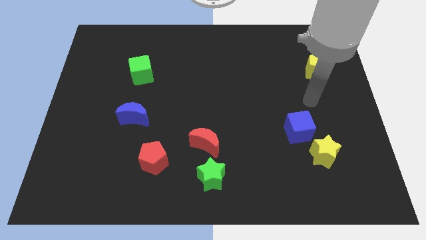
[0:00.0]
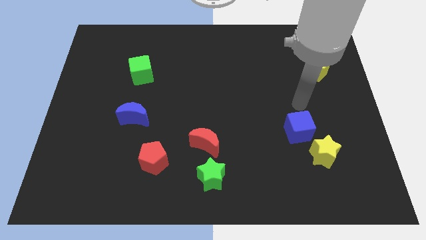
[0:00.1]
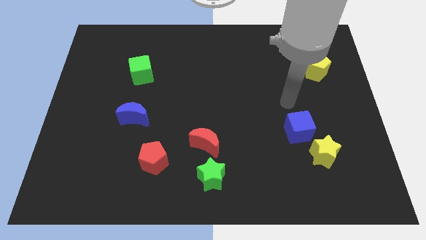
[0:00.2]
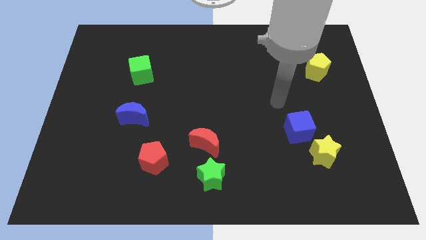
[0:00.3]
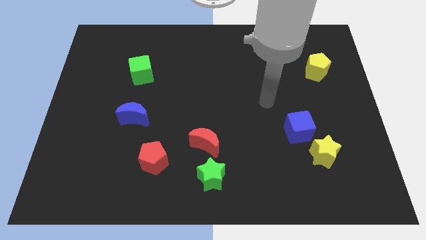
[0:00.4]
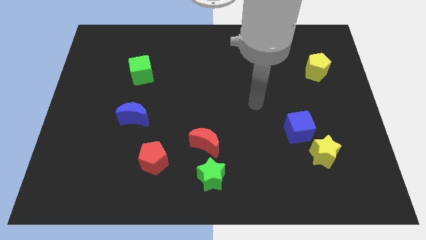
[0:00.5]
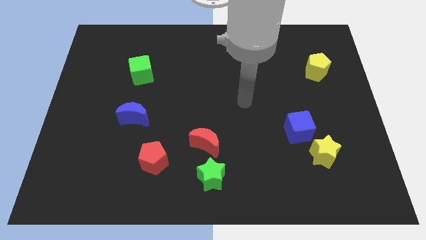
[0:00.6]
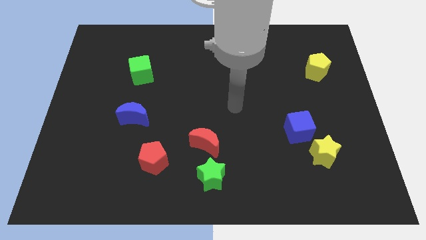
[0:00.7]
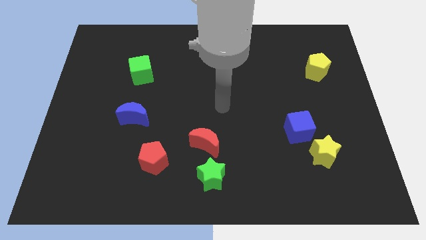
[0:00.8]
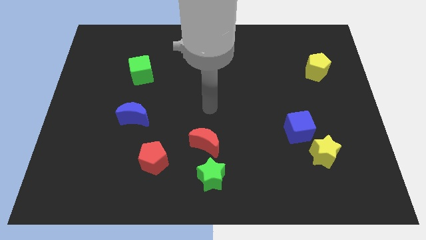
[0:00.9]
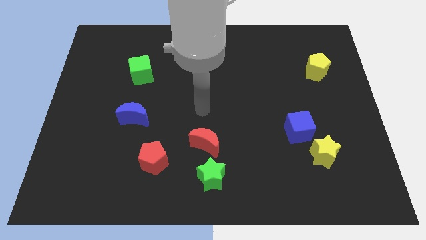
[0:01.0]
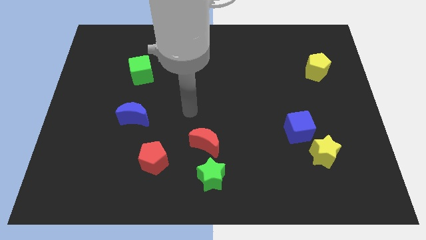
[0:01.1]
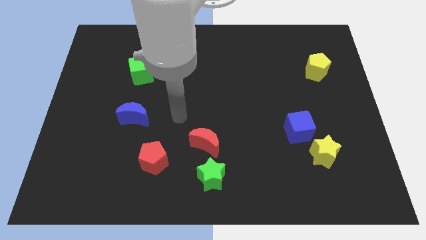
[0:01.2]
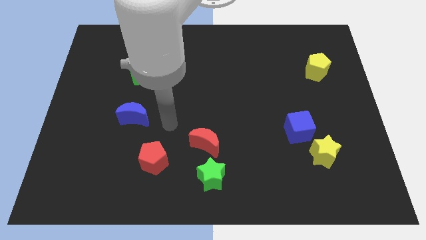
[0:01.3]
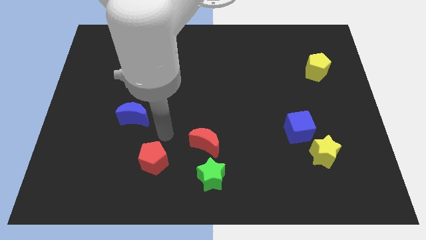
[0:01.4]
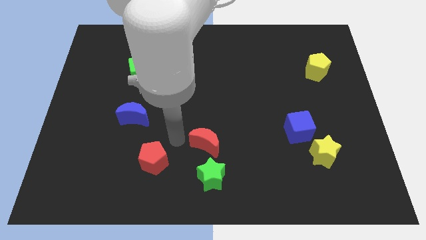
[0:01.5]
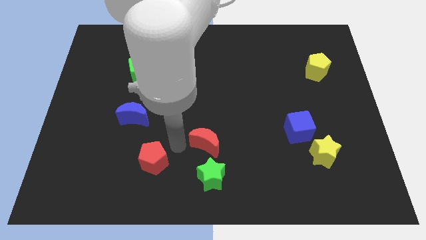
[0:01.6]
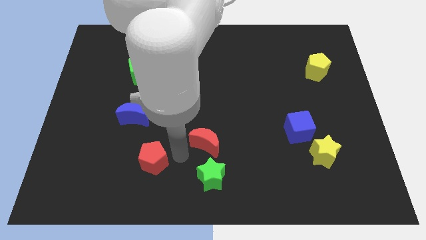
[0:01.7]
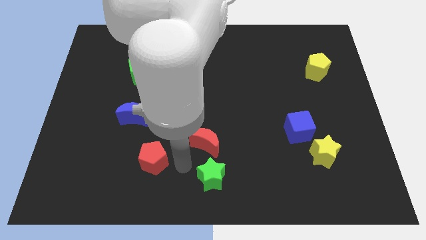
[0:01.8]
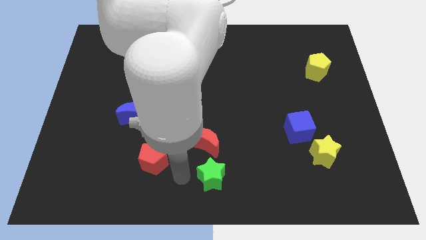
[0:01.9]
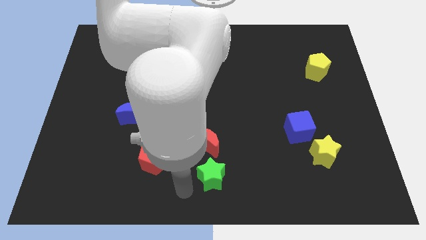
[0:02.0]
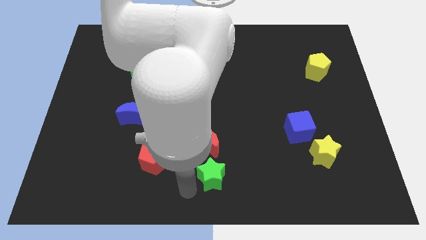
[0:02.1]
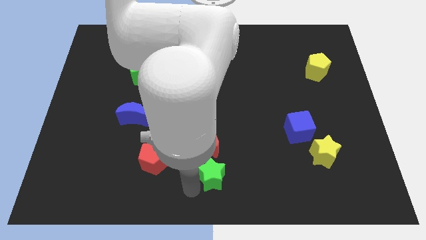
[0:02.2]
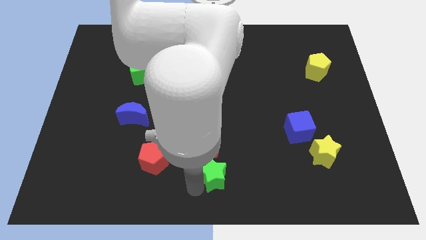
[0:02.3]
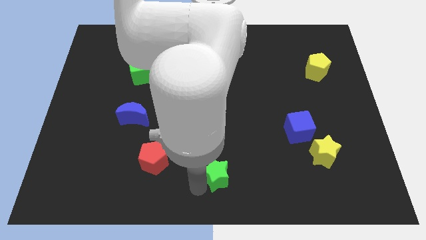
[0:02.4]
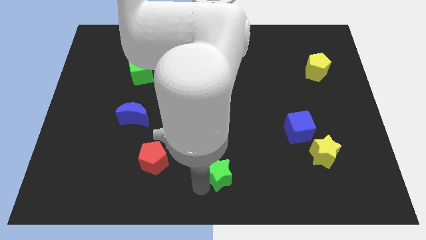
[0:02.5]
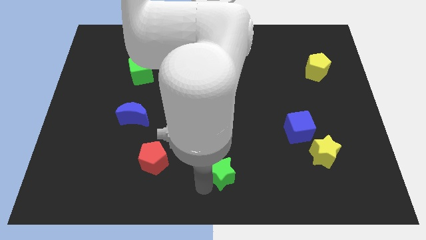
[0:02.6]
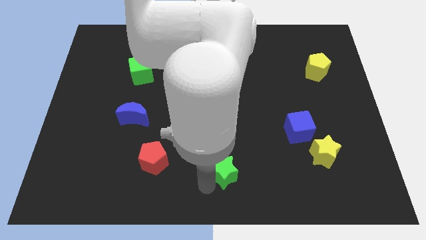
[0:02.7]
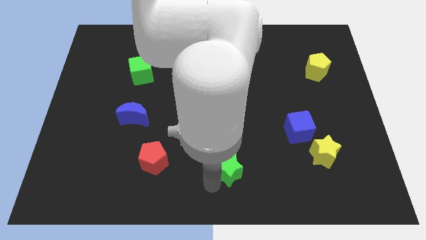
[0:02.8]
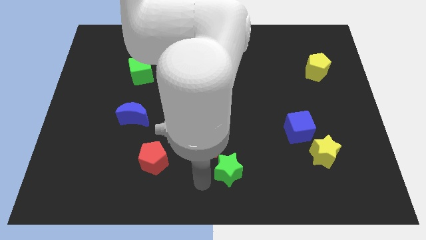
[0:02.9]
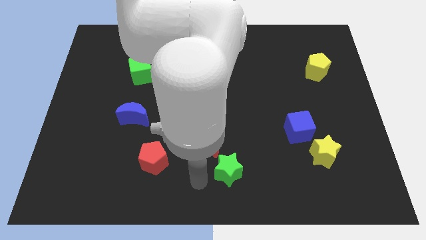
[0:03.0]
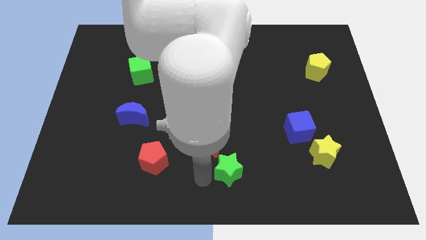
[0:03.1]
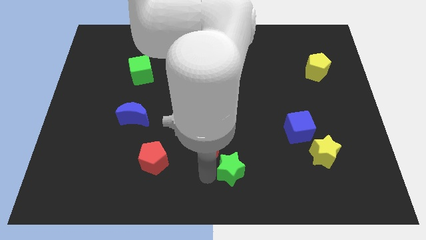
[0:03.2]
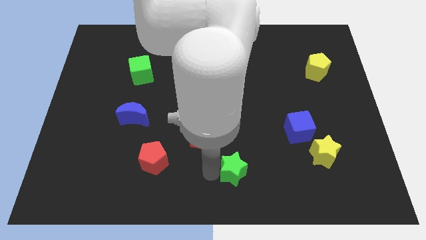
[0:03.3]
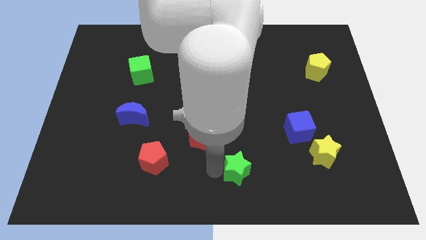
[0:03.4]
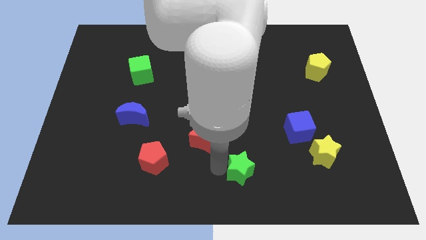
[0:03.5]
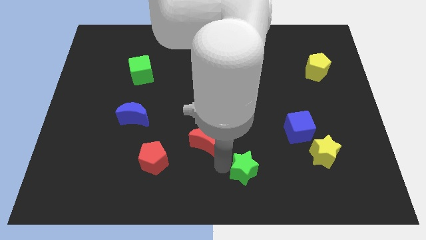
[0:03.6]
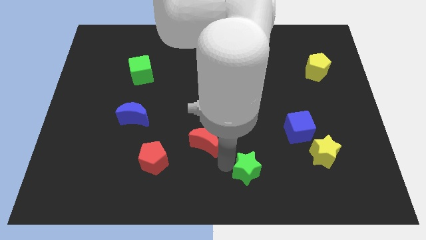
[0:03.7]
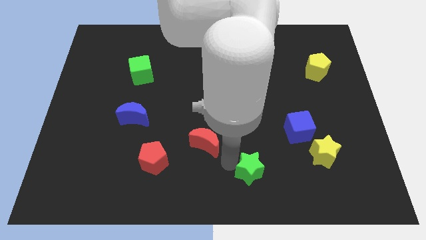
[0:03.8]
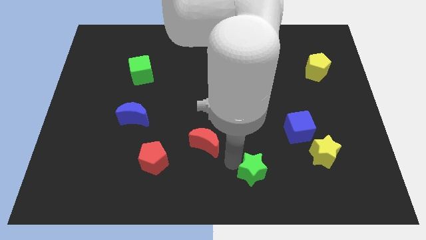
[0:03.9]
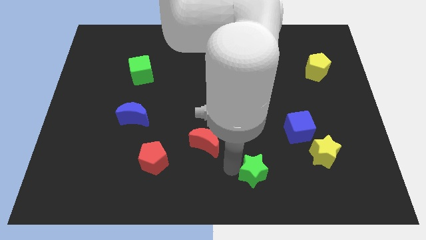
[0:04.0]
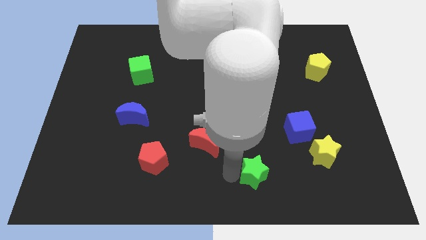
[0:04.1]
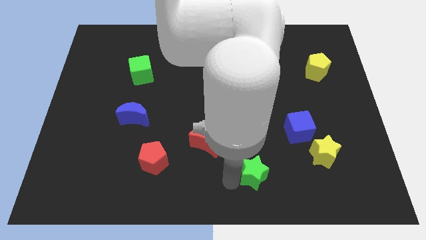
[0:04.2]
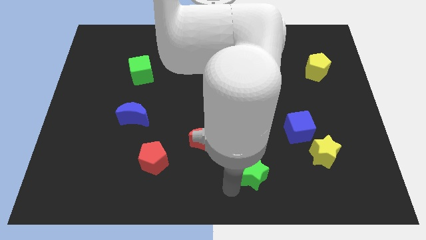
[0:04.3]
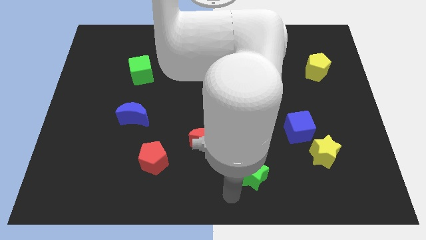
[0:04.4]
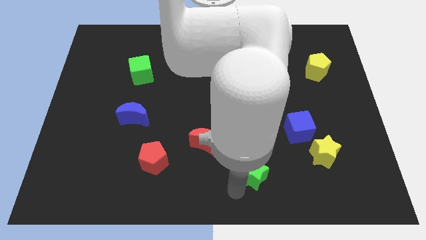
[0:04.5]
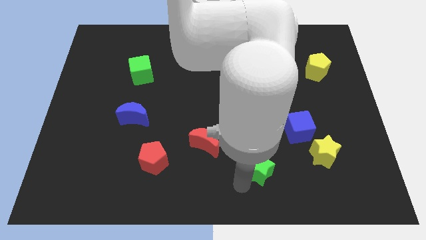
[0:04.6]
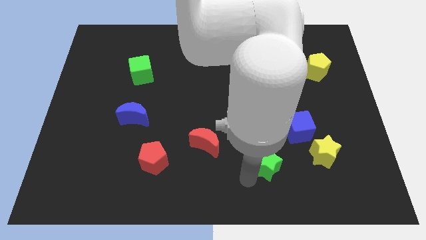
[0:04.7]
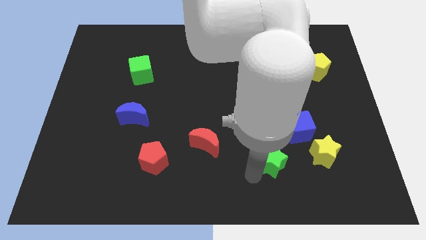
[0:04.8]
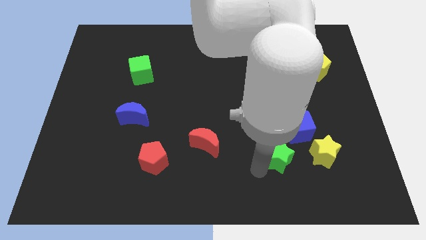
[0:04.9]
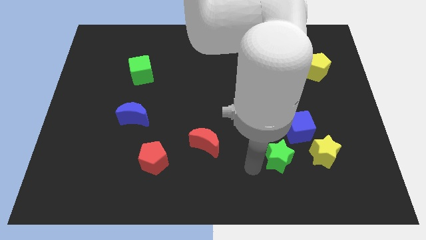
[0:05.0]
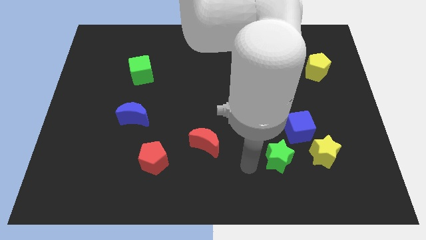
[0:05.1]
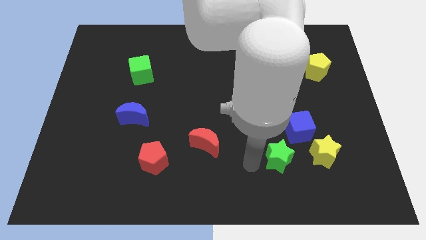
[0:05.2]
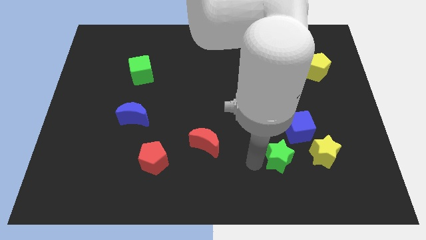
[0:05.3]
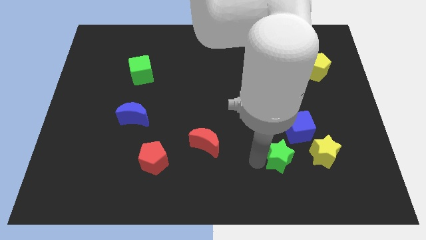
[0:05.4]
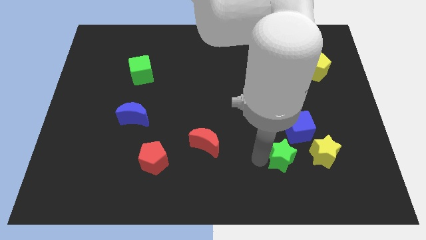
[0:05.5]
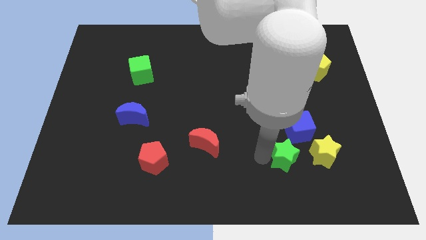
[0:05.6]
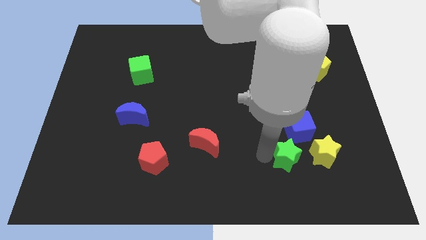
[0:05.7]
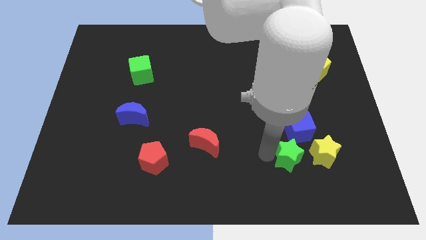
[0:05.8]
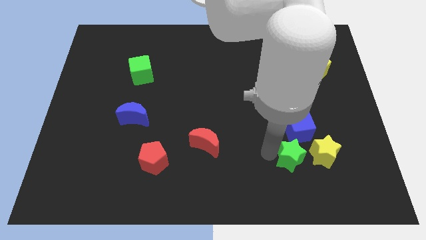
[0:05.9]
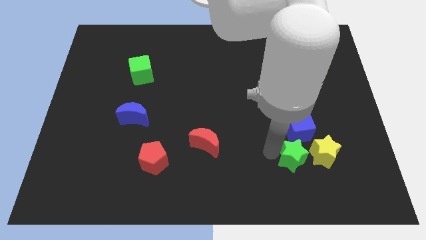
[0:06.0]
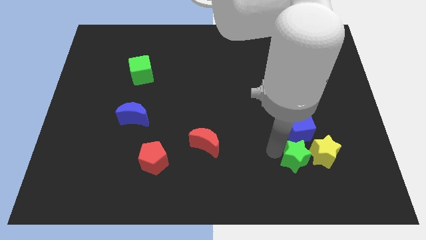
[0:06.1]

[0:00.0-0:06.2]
push the green star towards the yellow star

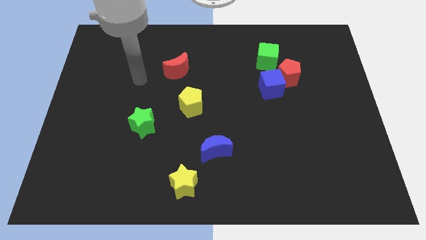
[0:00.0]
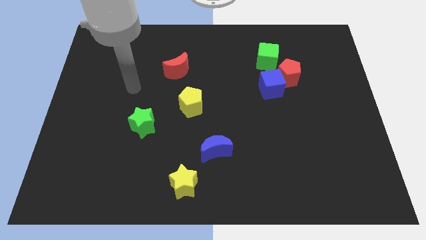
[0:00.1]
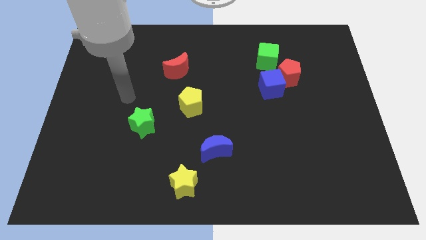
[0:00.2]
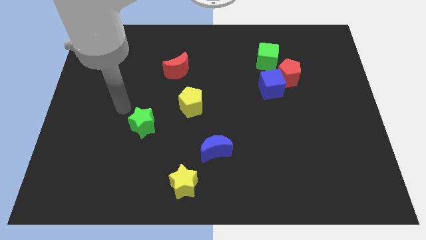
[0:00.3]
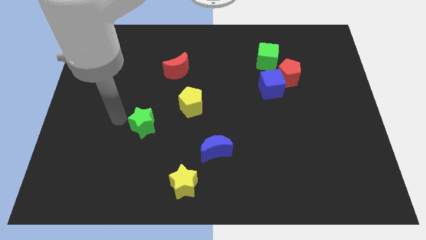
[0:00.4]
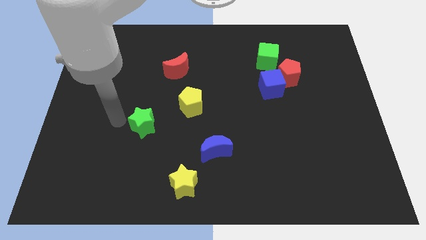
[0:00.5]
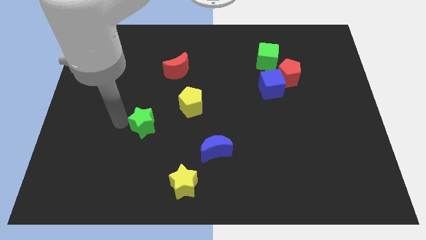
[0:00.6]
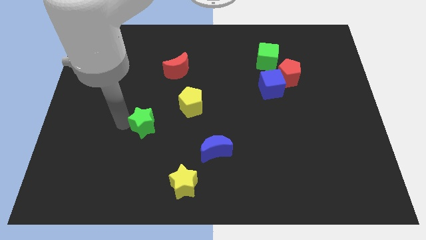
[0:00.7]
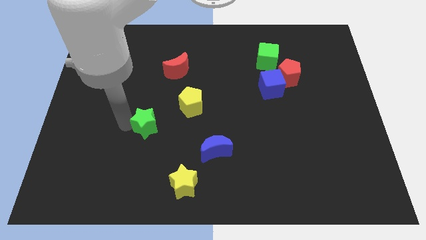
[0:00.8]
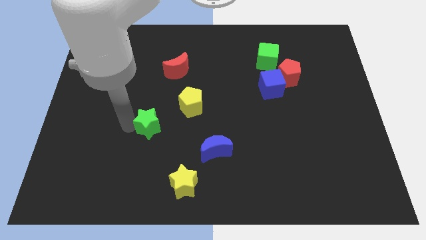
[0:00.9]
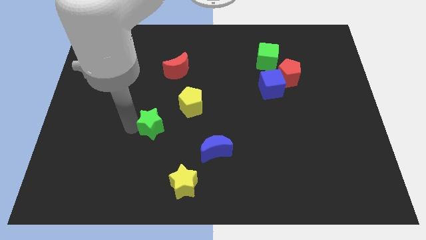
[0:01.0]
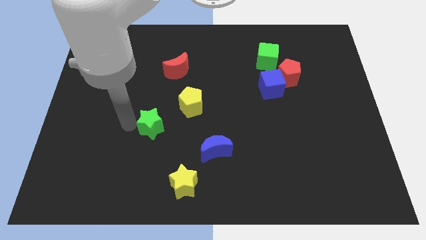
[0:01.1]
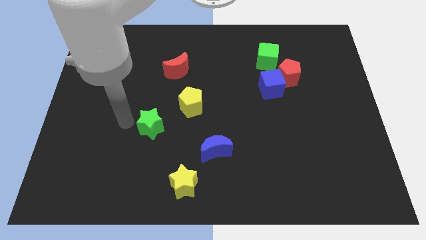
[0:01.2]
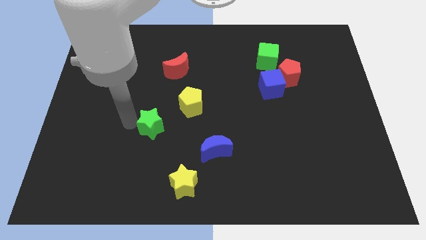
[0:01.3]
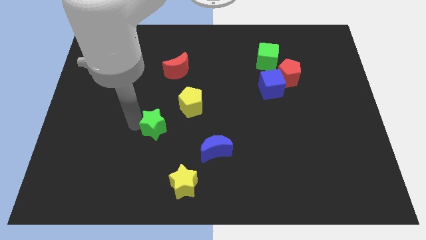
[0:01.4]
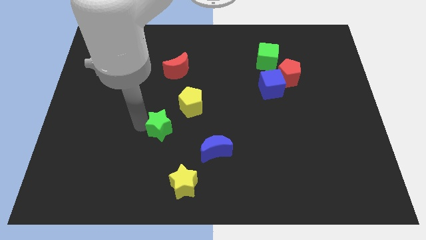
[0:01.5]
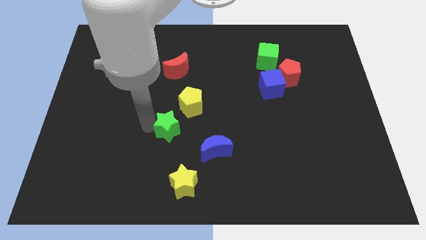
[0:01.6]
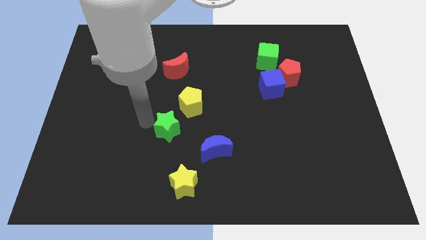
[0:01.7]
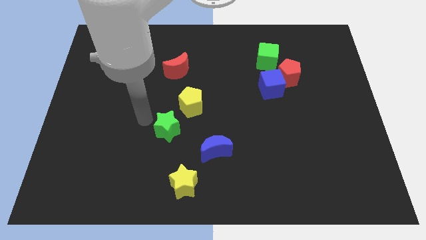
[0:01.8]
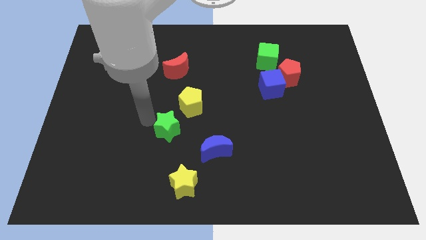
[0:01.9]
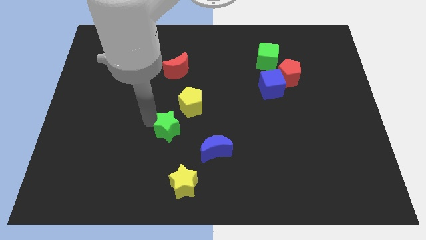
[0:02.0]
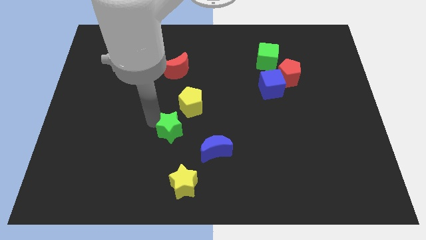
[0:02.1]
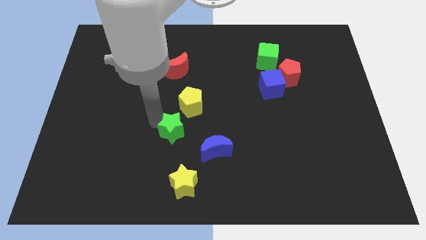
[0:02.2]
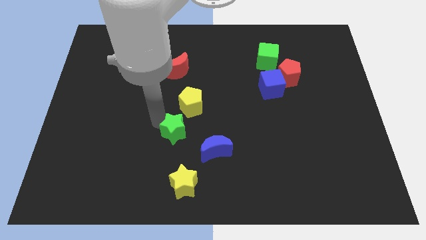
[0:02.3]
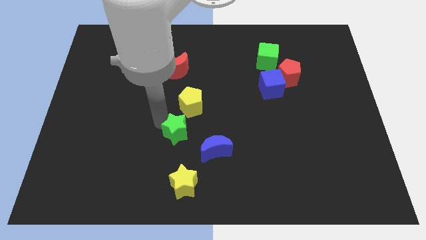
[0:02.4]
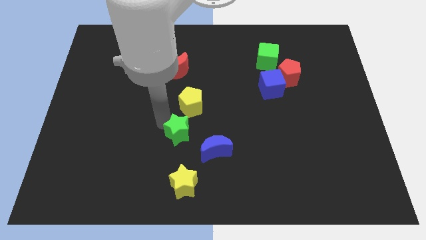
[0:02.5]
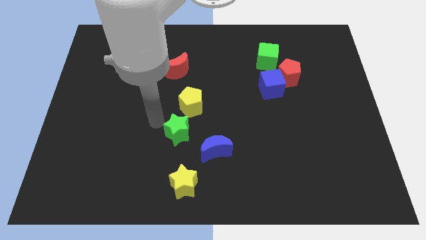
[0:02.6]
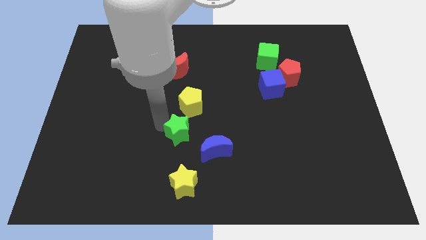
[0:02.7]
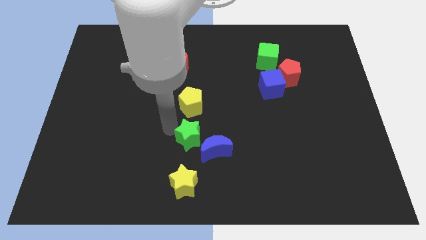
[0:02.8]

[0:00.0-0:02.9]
move the green star towards the blue moon
